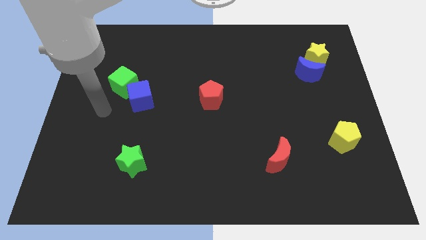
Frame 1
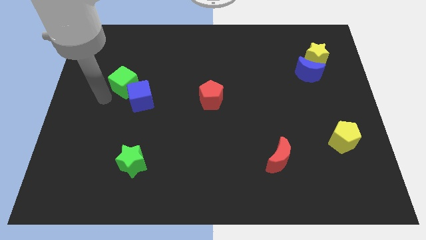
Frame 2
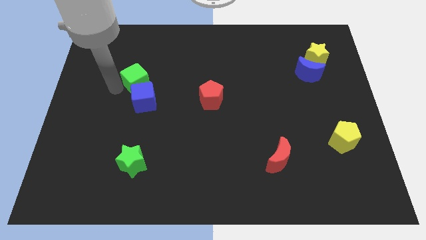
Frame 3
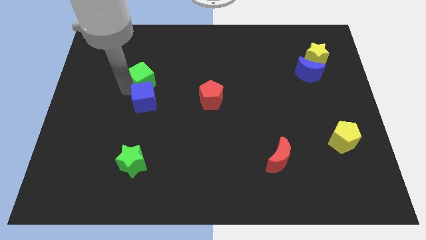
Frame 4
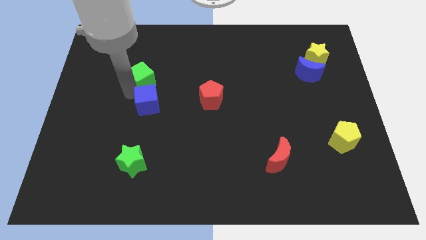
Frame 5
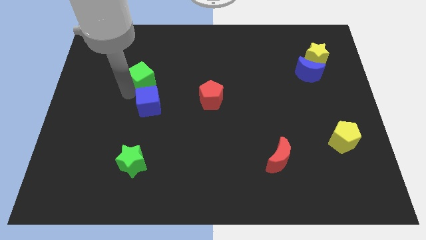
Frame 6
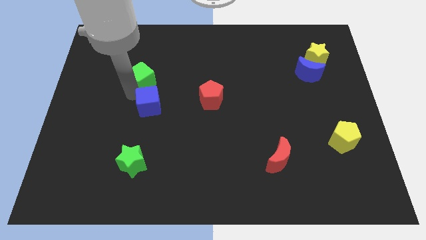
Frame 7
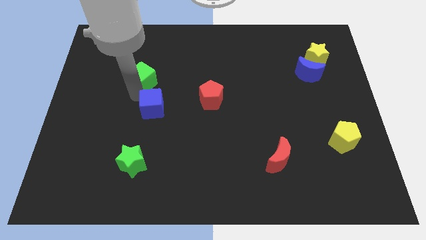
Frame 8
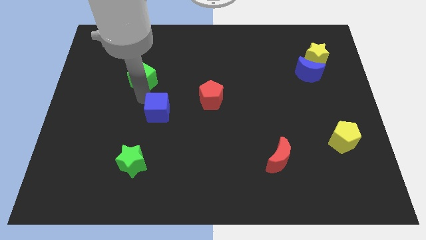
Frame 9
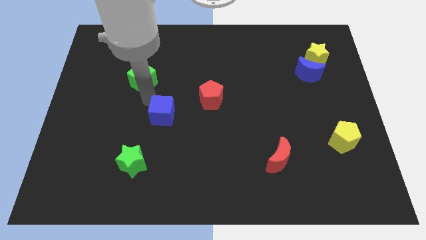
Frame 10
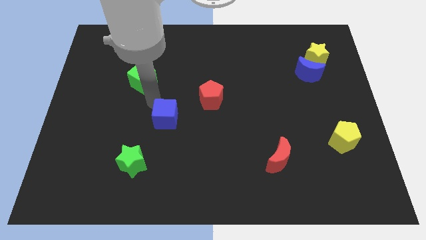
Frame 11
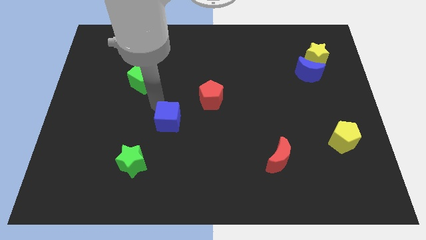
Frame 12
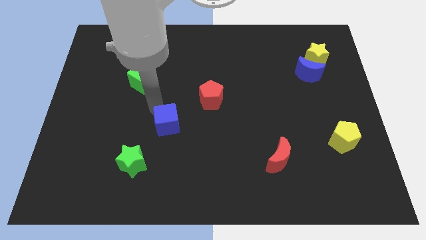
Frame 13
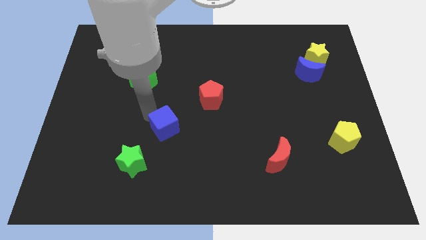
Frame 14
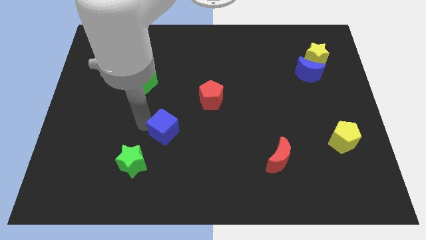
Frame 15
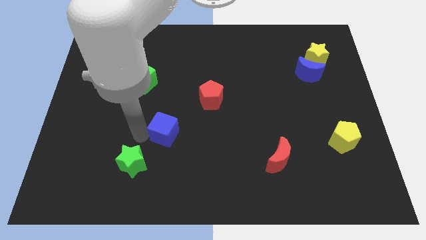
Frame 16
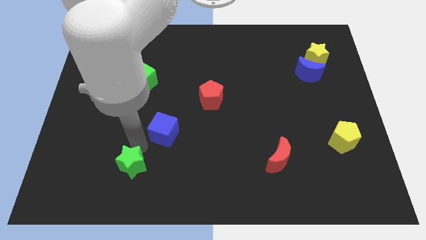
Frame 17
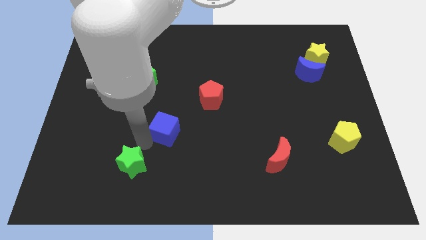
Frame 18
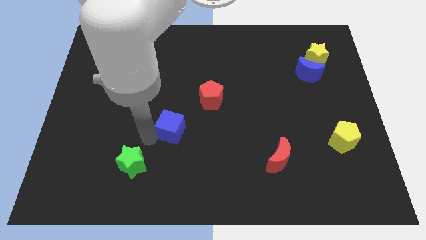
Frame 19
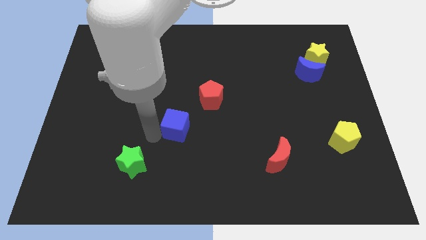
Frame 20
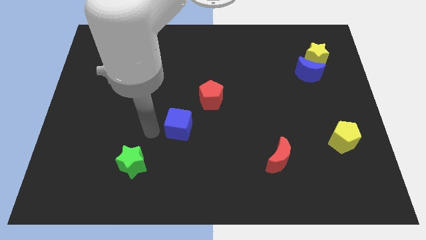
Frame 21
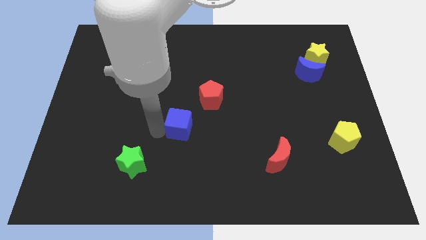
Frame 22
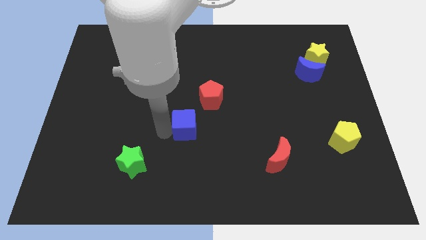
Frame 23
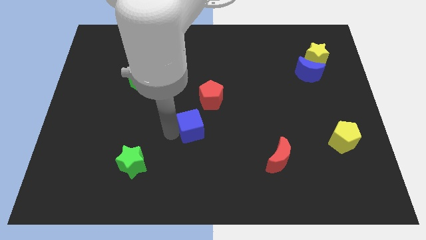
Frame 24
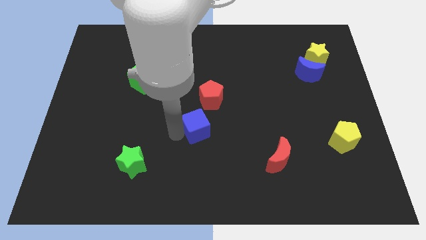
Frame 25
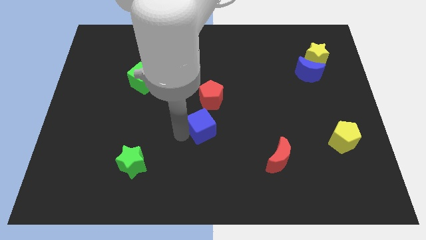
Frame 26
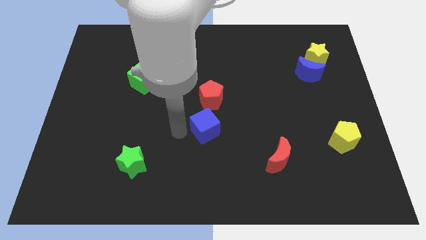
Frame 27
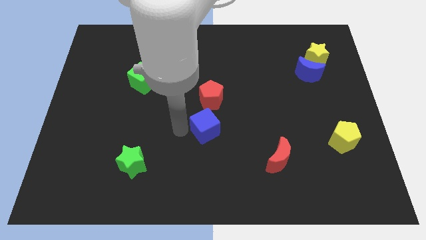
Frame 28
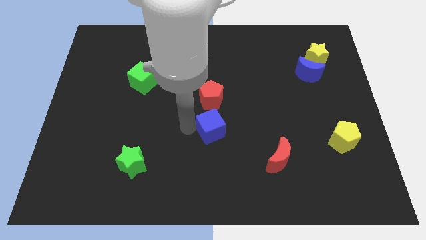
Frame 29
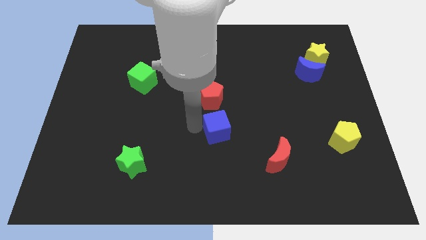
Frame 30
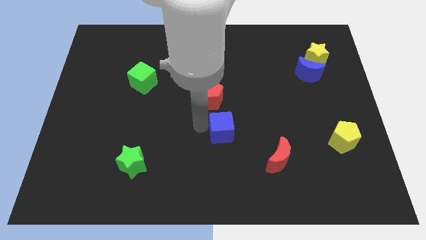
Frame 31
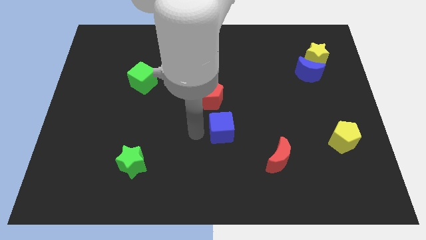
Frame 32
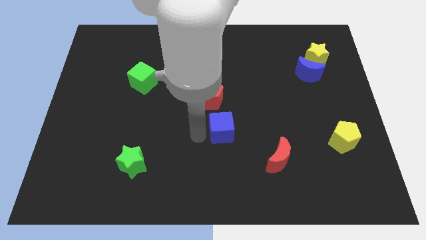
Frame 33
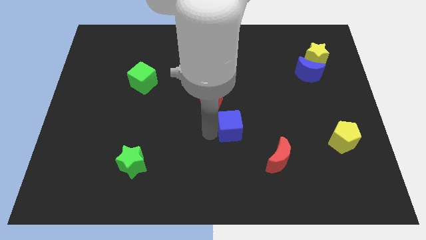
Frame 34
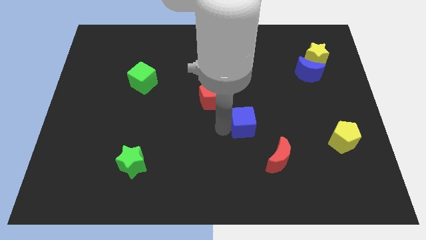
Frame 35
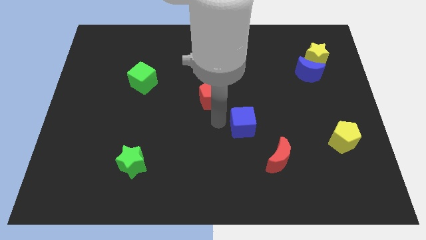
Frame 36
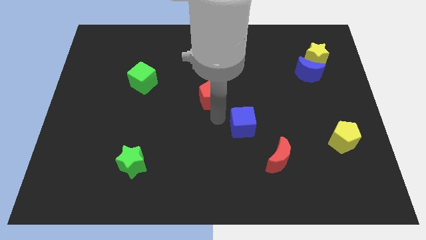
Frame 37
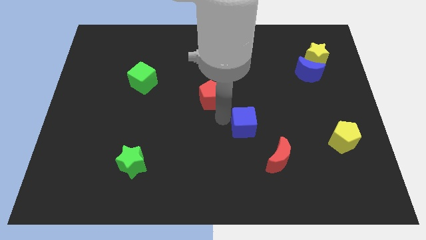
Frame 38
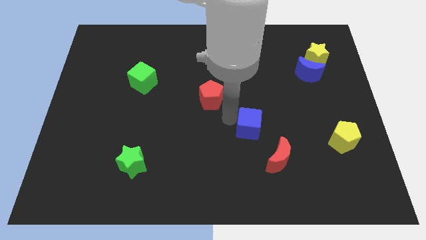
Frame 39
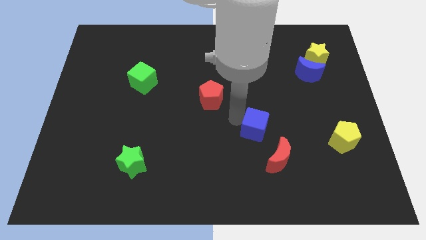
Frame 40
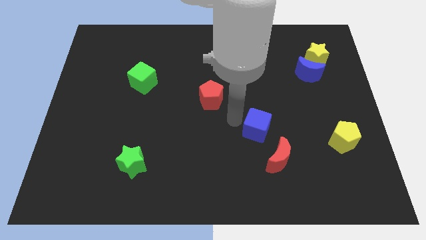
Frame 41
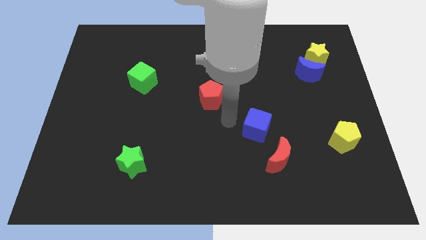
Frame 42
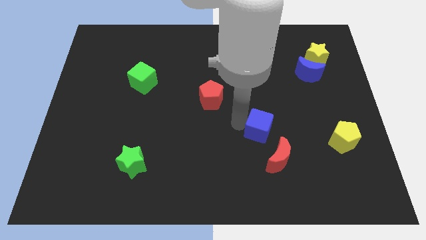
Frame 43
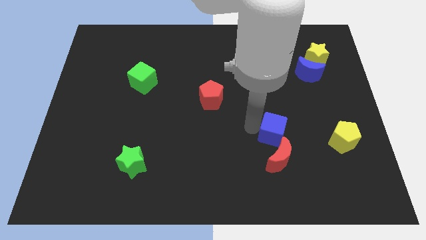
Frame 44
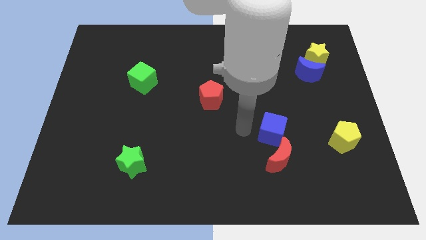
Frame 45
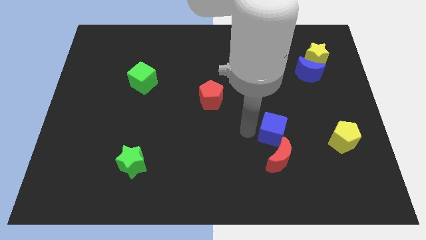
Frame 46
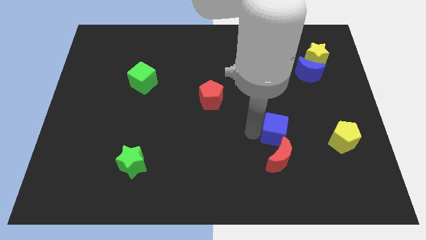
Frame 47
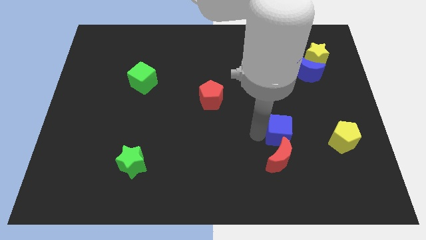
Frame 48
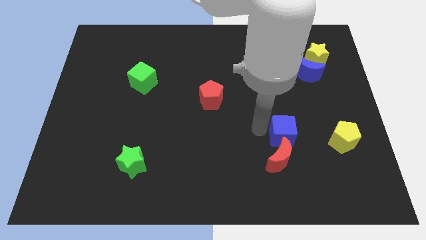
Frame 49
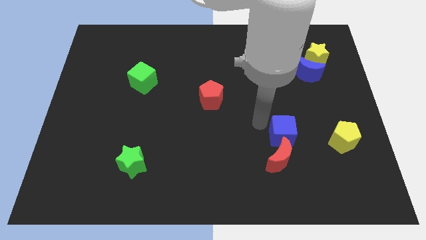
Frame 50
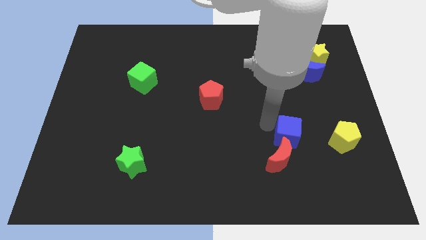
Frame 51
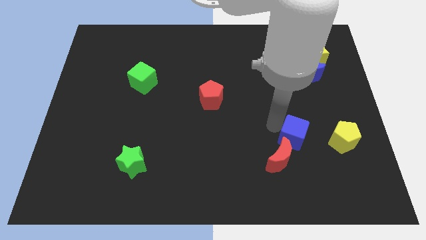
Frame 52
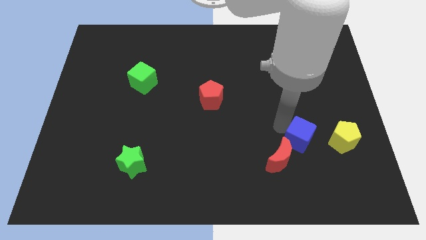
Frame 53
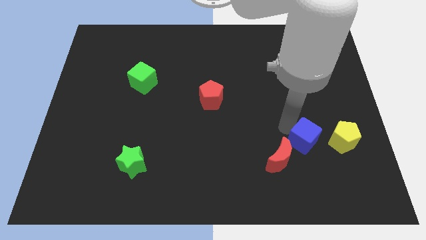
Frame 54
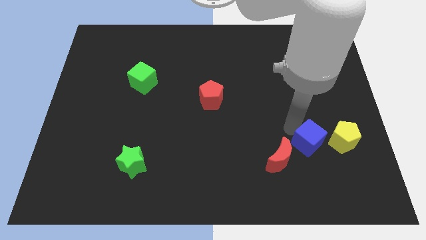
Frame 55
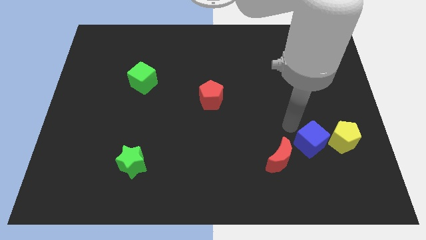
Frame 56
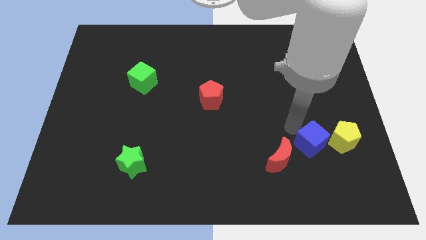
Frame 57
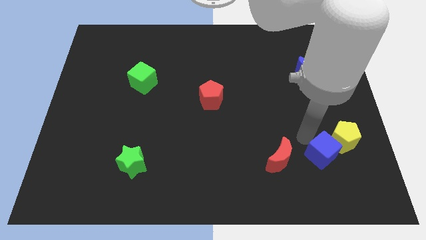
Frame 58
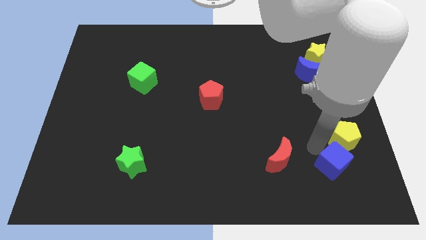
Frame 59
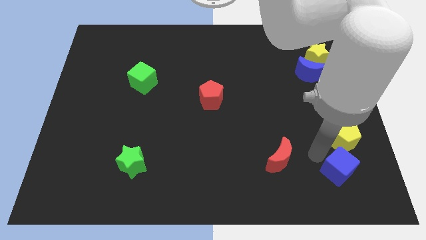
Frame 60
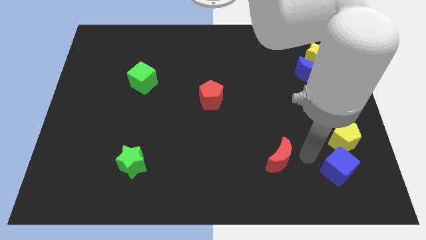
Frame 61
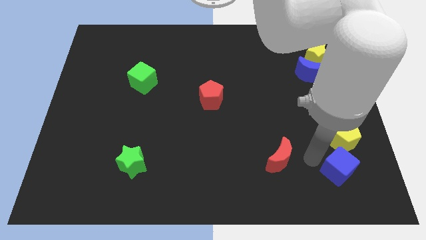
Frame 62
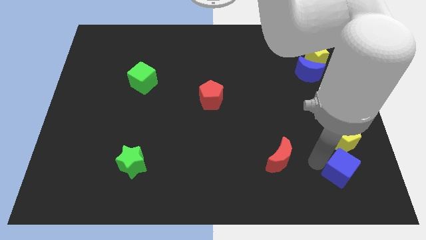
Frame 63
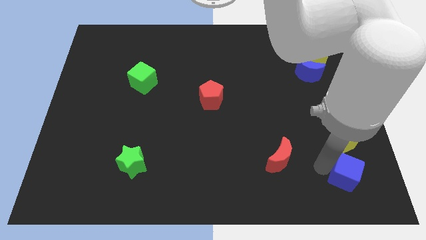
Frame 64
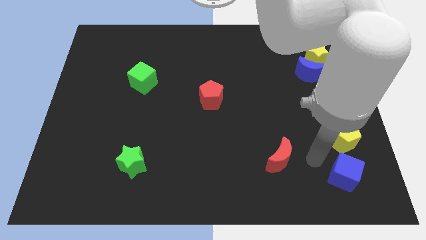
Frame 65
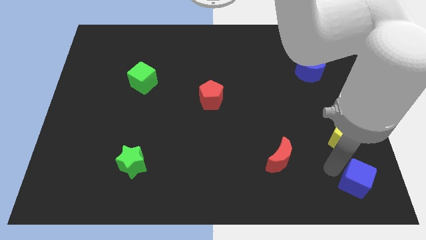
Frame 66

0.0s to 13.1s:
slide the blue cube to the bottom right of the board
